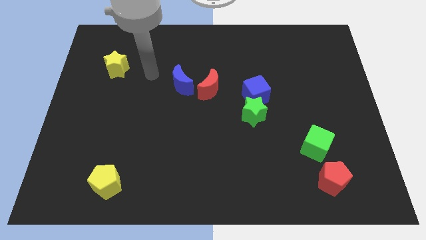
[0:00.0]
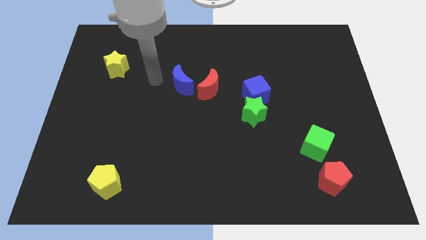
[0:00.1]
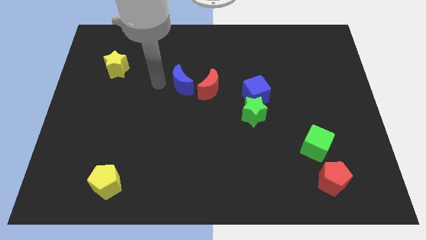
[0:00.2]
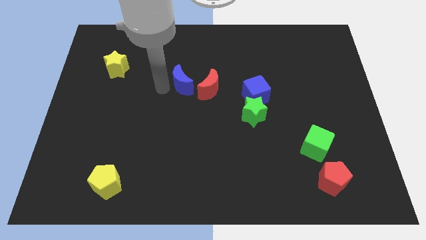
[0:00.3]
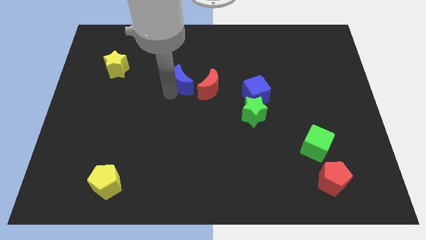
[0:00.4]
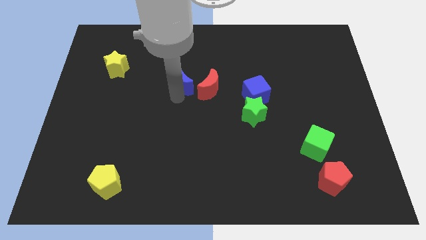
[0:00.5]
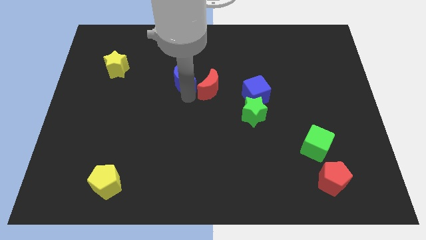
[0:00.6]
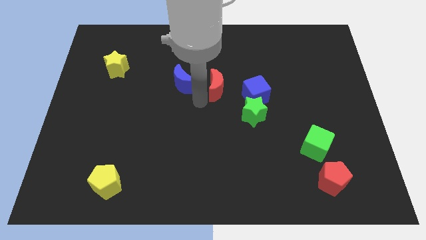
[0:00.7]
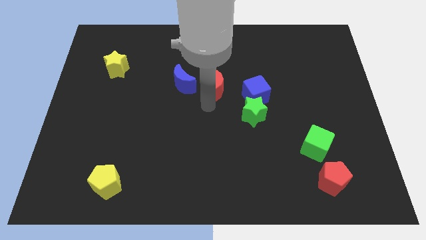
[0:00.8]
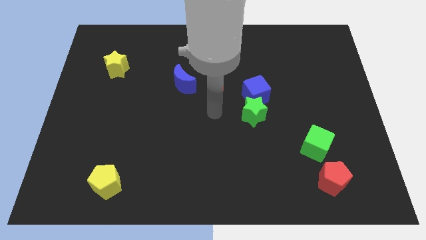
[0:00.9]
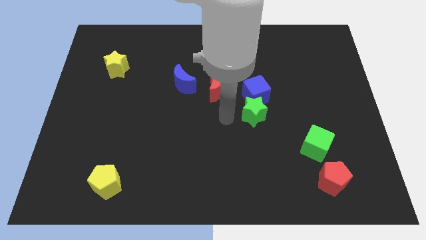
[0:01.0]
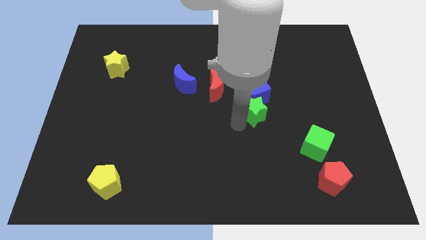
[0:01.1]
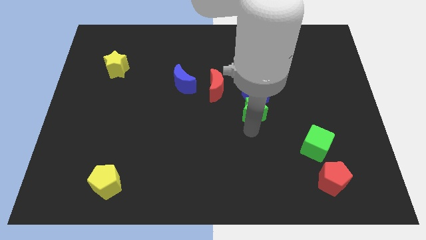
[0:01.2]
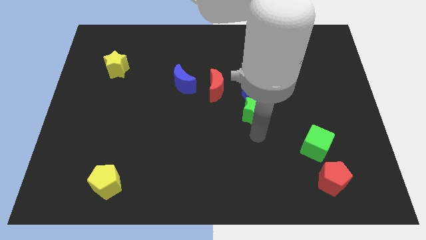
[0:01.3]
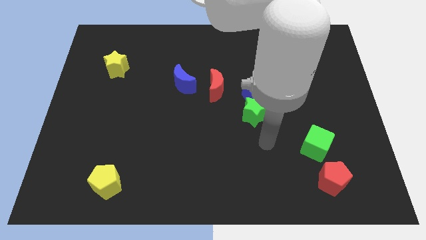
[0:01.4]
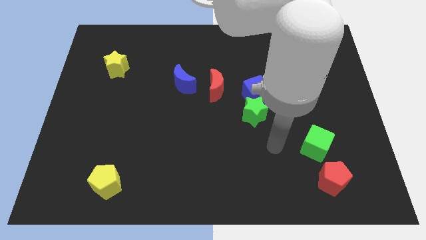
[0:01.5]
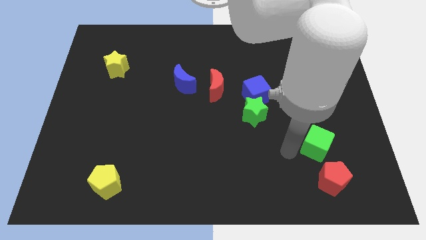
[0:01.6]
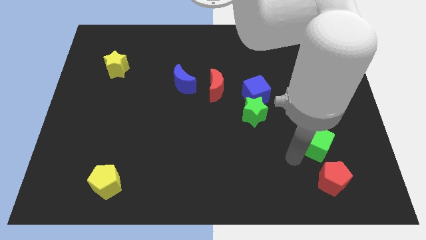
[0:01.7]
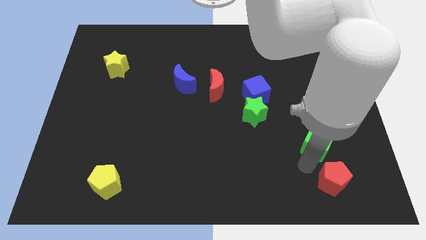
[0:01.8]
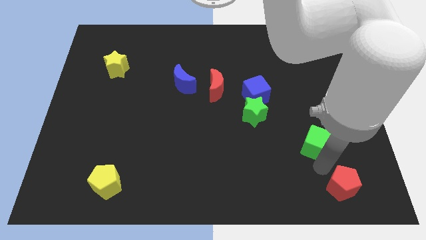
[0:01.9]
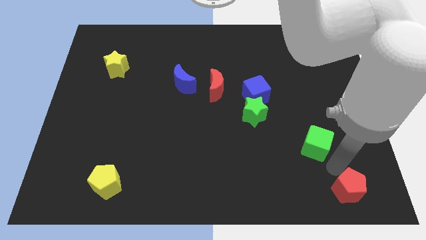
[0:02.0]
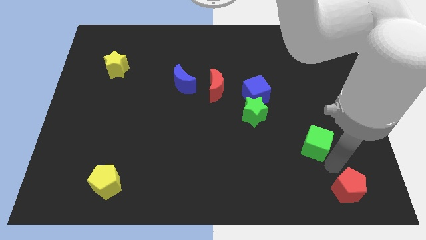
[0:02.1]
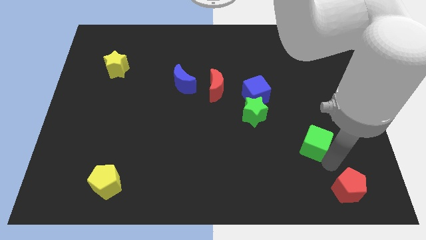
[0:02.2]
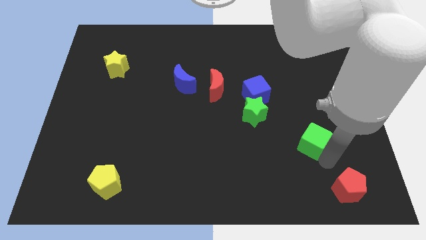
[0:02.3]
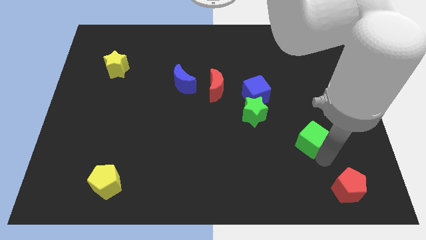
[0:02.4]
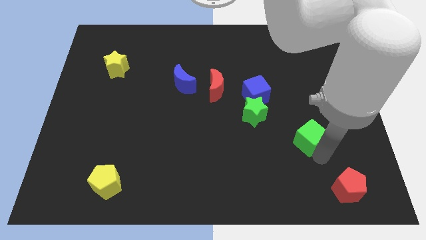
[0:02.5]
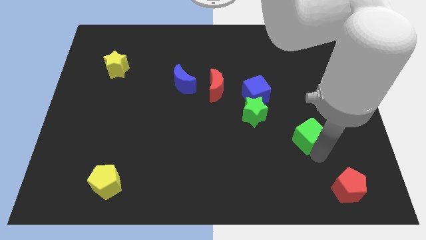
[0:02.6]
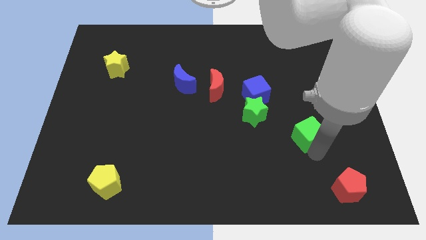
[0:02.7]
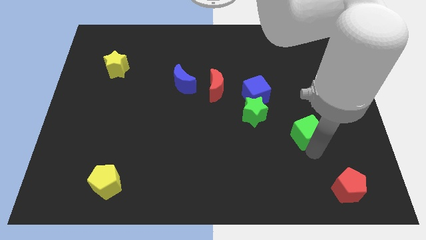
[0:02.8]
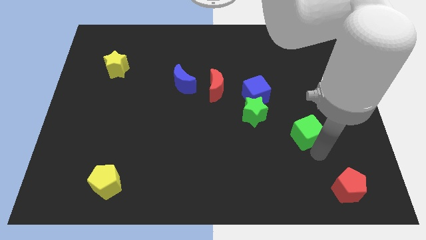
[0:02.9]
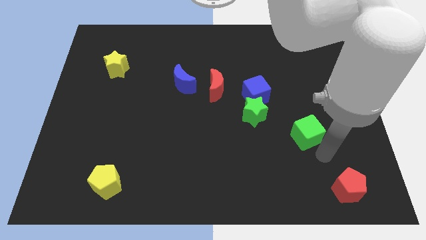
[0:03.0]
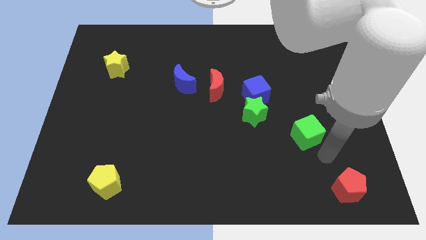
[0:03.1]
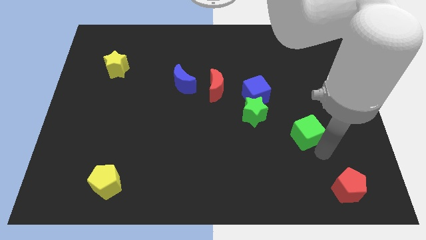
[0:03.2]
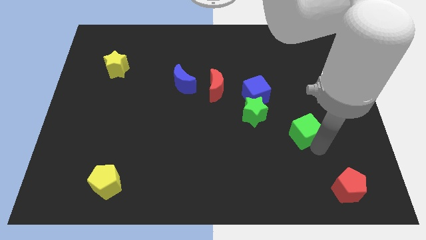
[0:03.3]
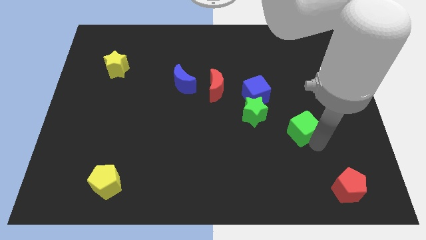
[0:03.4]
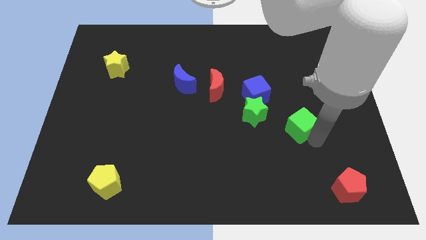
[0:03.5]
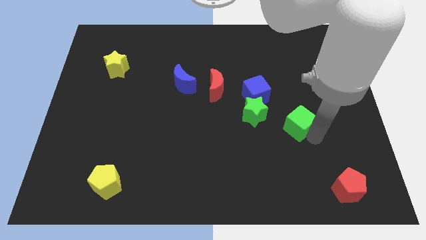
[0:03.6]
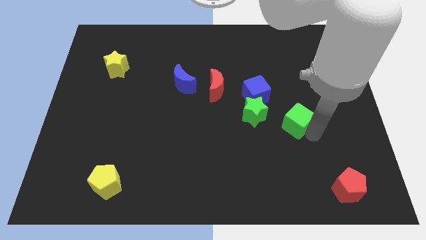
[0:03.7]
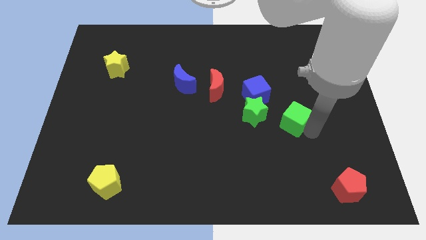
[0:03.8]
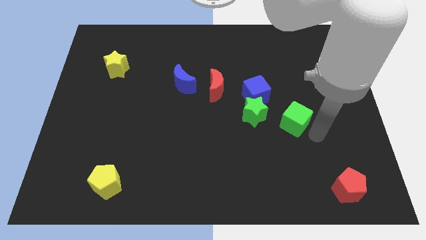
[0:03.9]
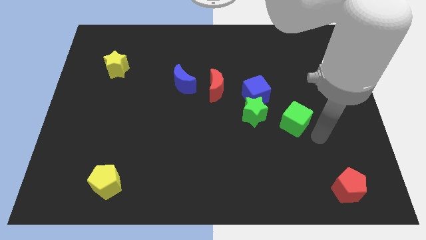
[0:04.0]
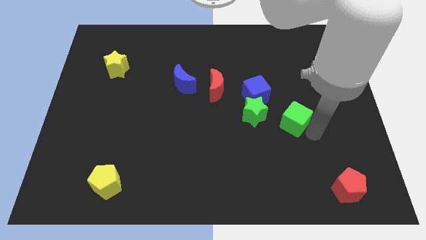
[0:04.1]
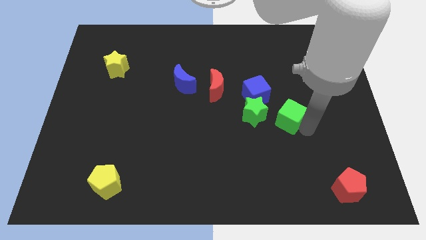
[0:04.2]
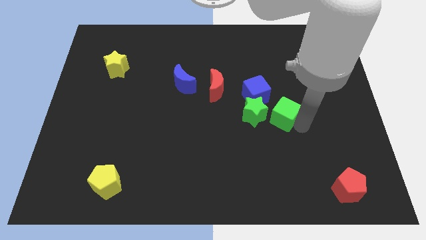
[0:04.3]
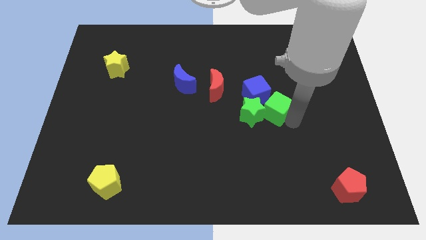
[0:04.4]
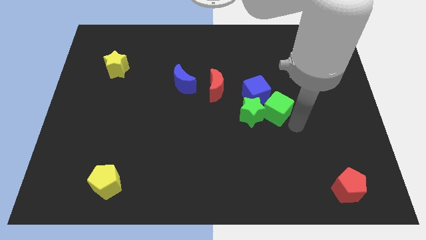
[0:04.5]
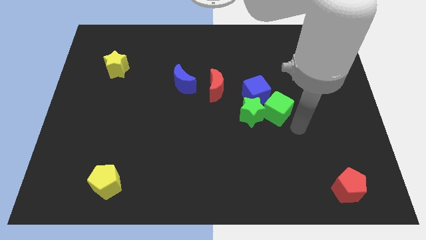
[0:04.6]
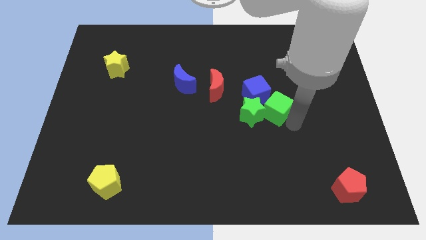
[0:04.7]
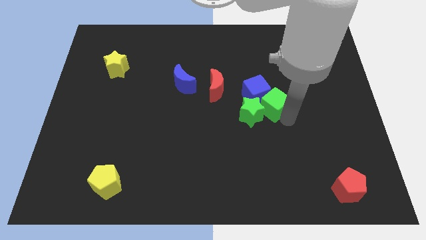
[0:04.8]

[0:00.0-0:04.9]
move the green cube to the blue cube

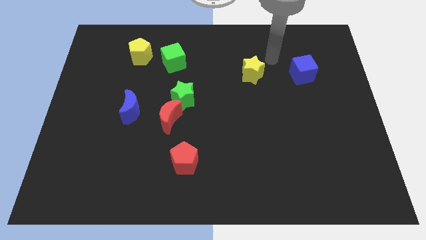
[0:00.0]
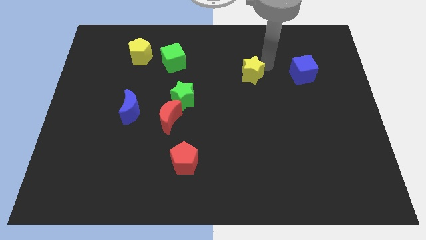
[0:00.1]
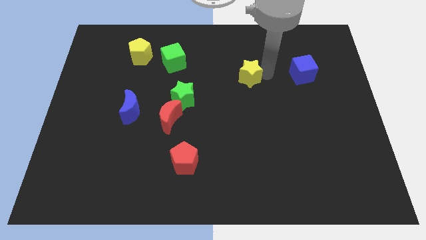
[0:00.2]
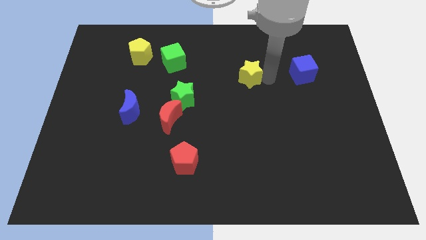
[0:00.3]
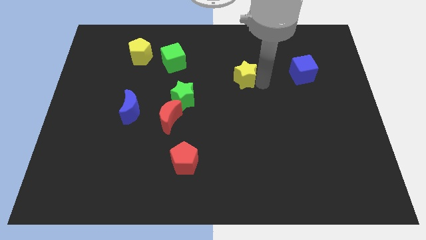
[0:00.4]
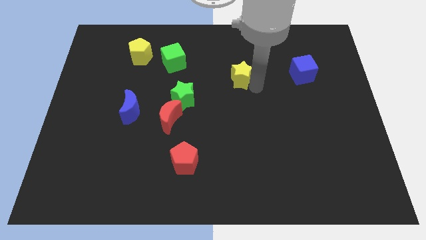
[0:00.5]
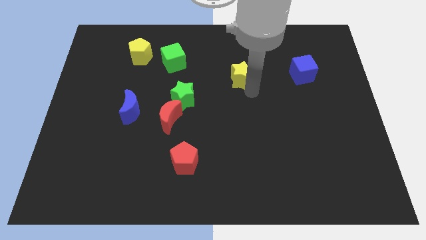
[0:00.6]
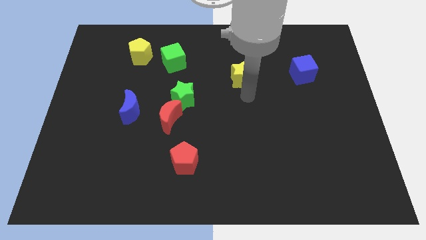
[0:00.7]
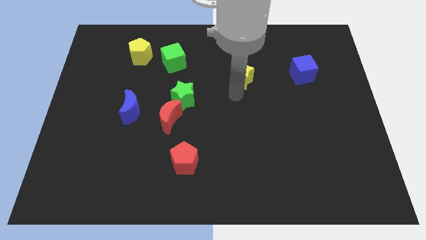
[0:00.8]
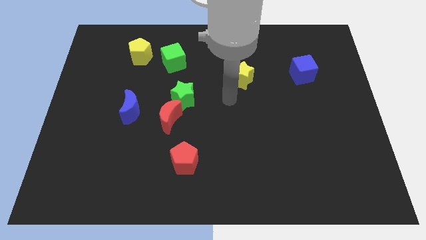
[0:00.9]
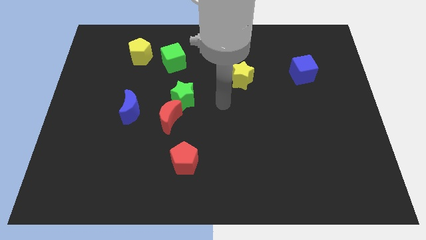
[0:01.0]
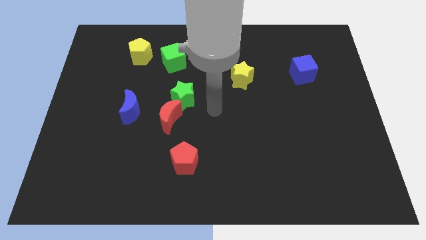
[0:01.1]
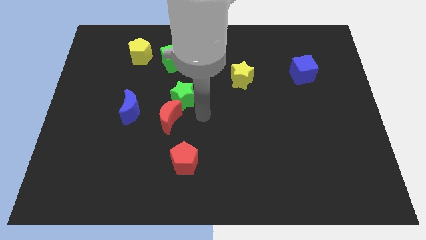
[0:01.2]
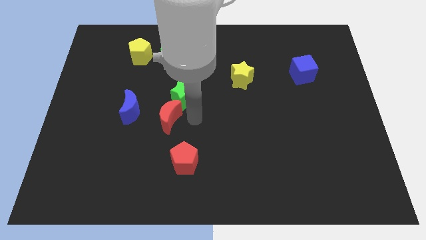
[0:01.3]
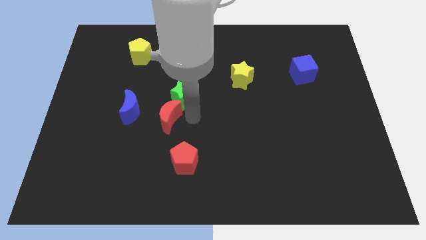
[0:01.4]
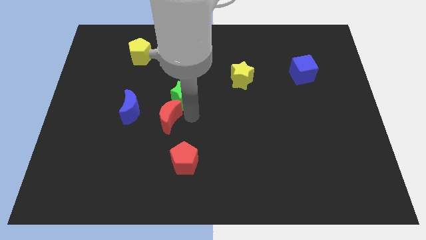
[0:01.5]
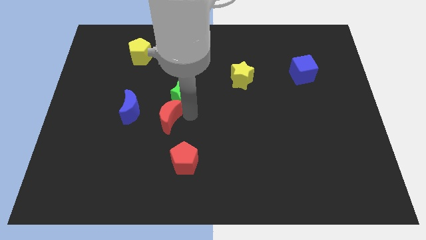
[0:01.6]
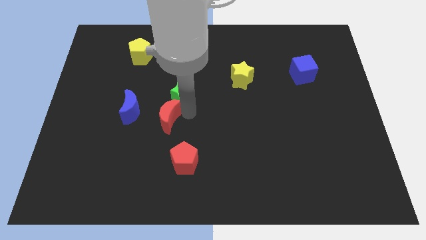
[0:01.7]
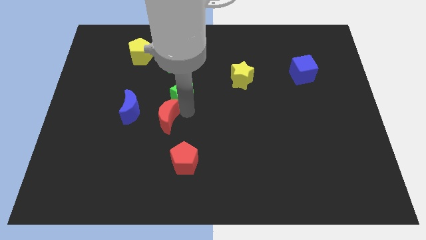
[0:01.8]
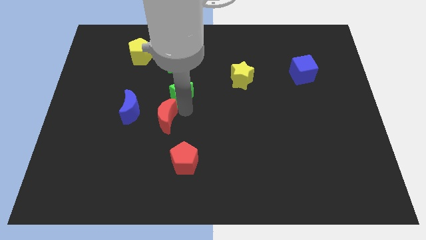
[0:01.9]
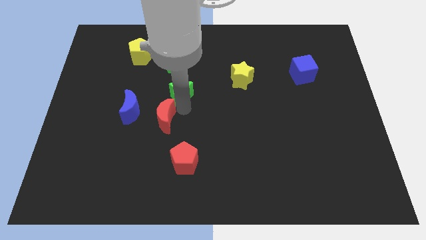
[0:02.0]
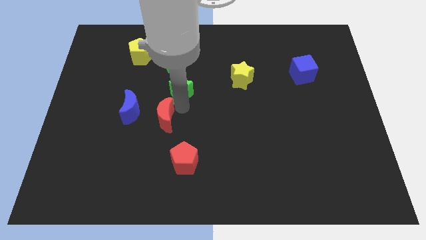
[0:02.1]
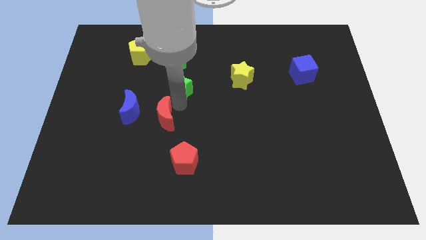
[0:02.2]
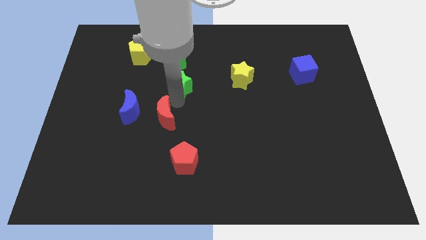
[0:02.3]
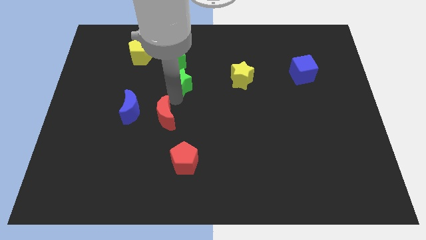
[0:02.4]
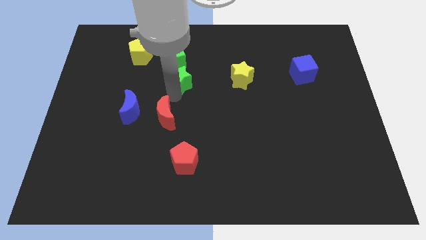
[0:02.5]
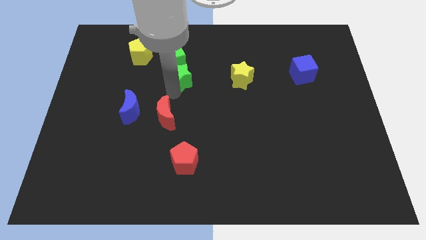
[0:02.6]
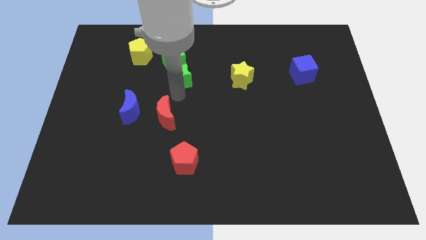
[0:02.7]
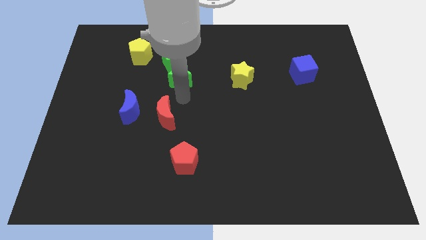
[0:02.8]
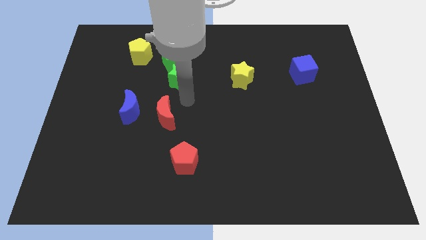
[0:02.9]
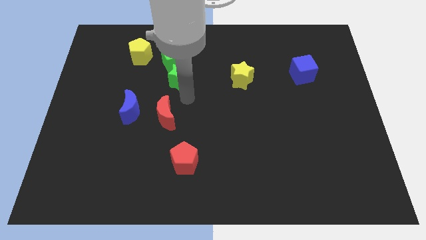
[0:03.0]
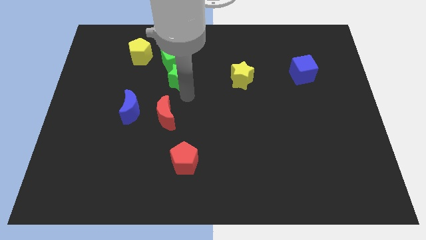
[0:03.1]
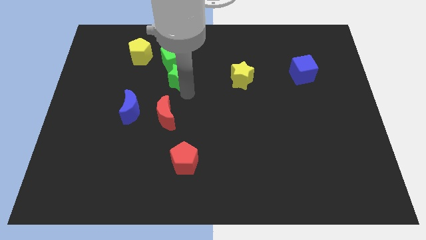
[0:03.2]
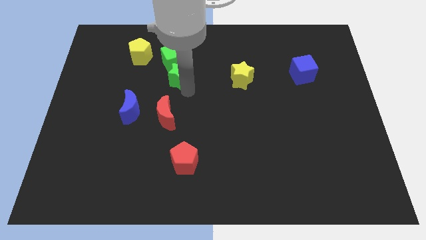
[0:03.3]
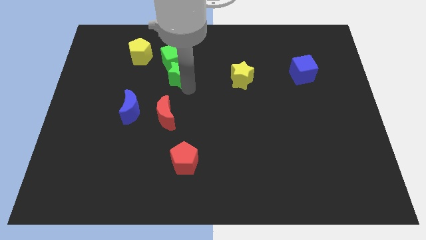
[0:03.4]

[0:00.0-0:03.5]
slide the green star close to the green cube
